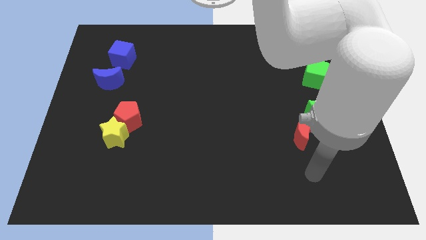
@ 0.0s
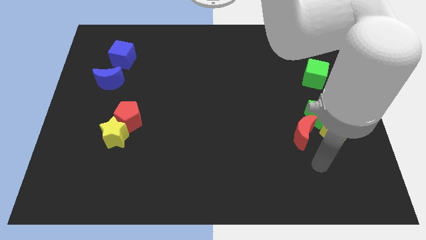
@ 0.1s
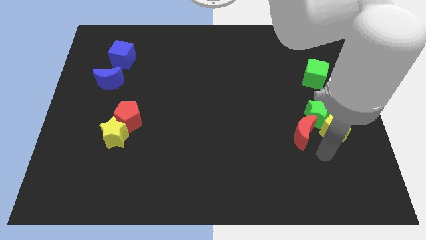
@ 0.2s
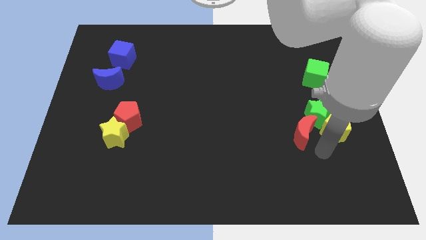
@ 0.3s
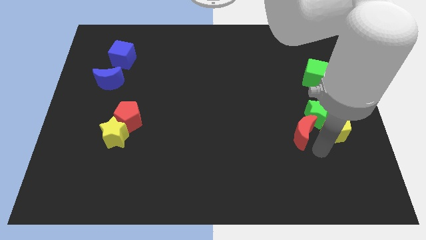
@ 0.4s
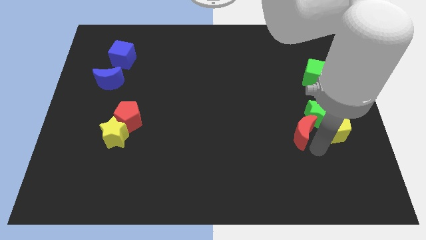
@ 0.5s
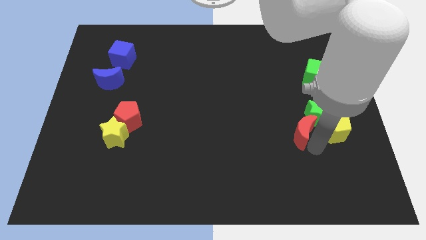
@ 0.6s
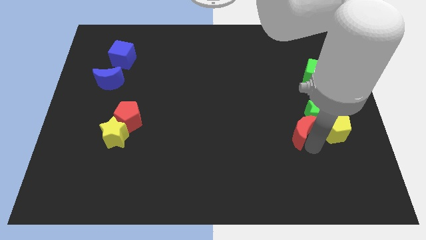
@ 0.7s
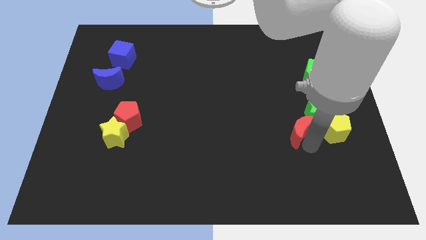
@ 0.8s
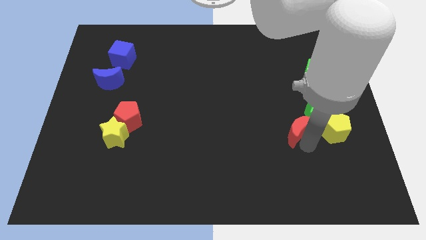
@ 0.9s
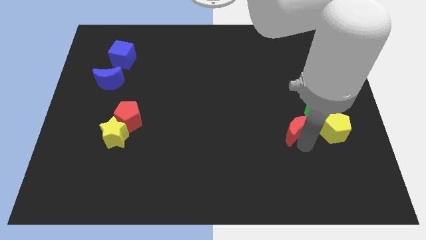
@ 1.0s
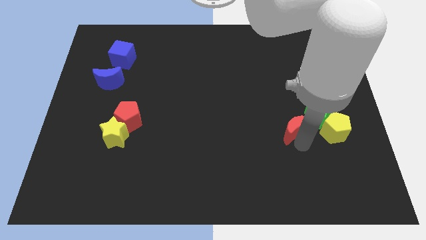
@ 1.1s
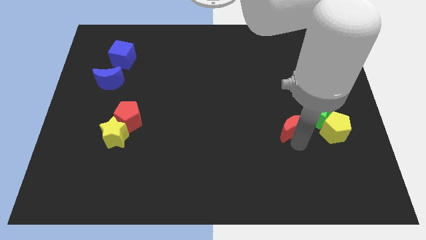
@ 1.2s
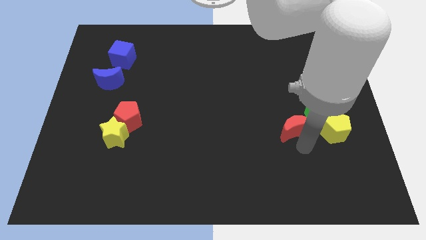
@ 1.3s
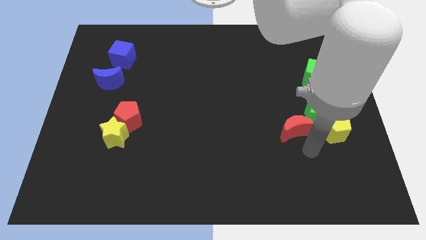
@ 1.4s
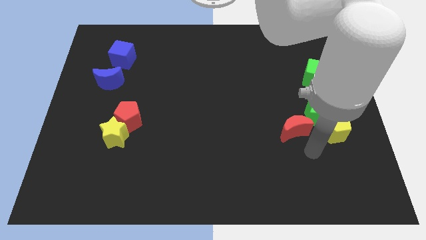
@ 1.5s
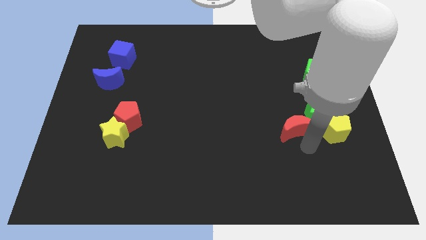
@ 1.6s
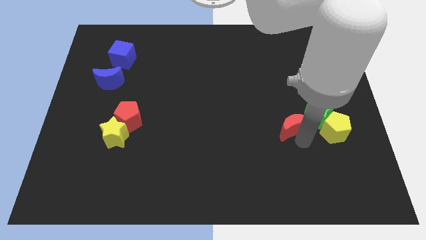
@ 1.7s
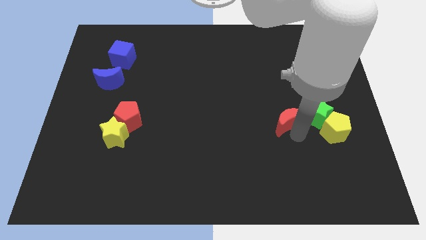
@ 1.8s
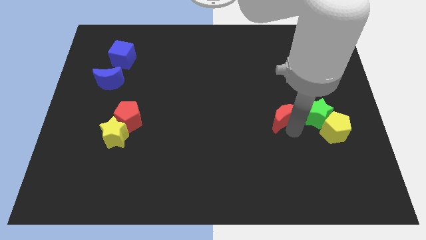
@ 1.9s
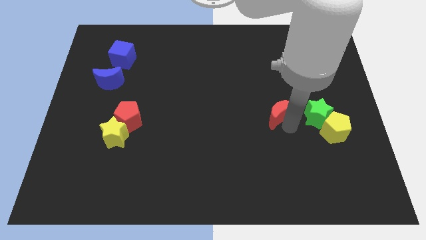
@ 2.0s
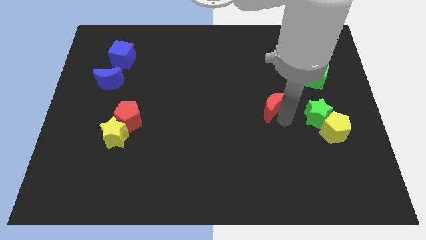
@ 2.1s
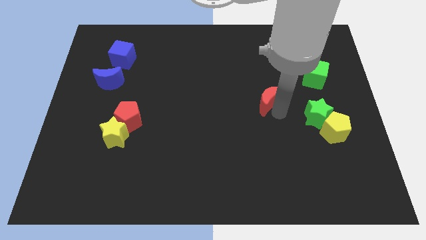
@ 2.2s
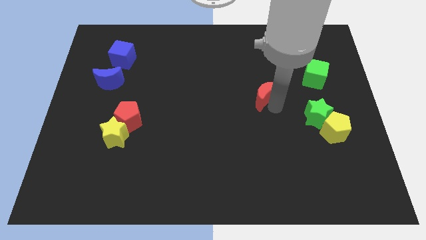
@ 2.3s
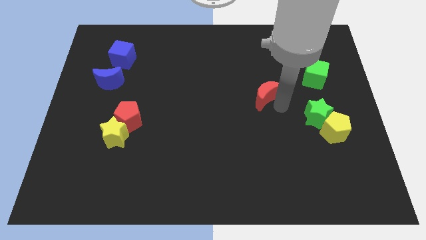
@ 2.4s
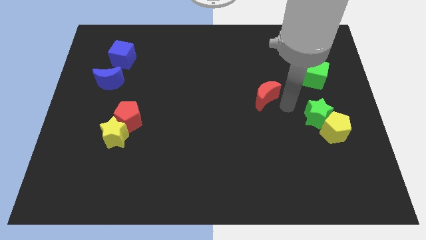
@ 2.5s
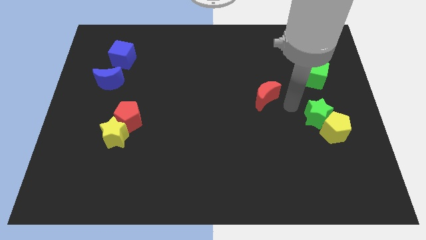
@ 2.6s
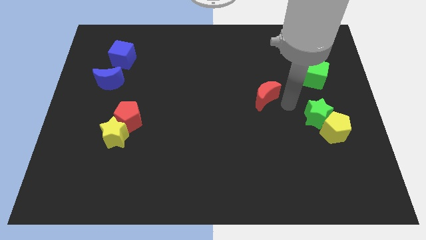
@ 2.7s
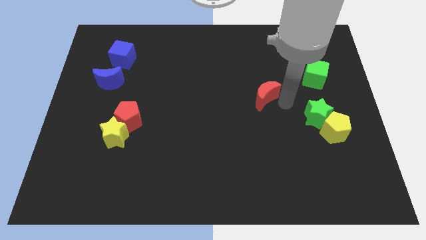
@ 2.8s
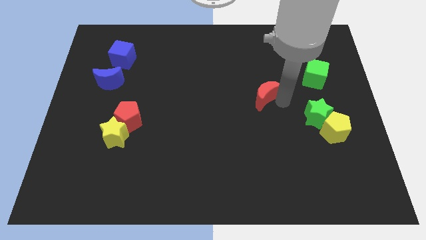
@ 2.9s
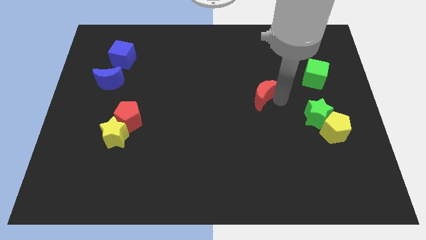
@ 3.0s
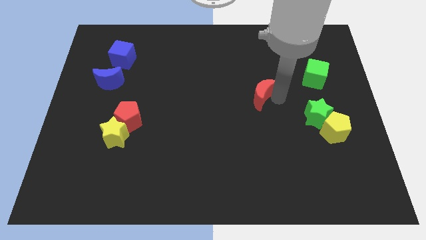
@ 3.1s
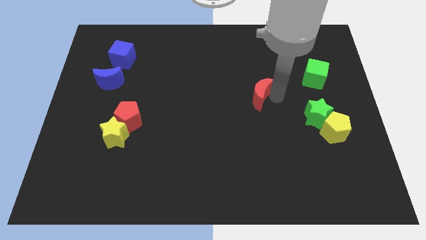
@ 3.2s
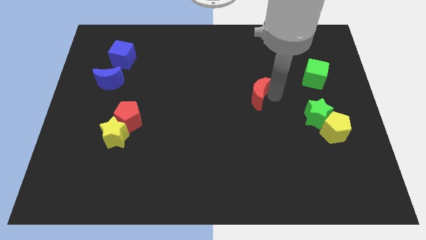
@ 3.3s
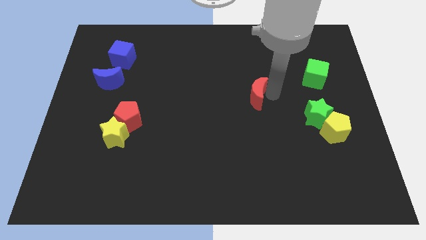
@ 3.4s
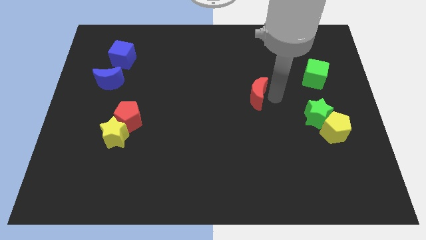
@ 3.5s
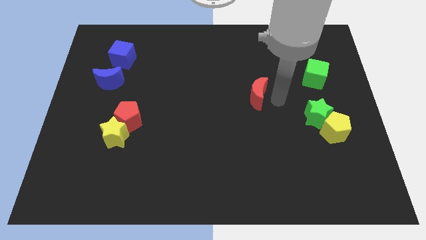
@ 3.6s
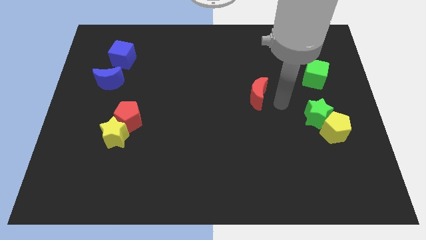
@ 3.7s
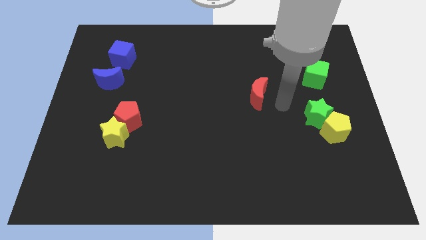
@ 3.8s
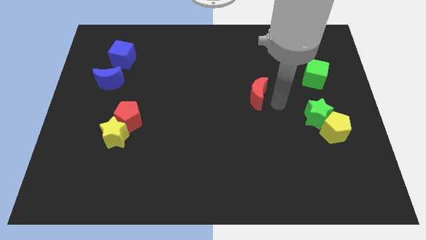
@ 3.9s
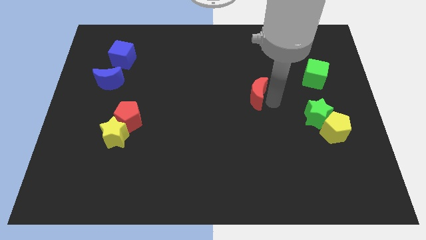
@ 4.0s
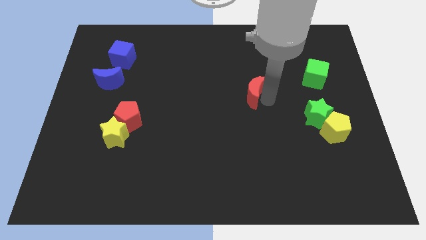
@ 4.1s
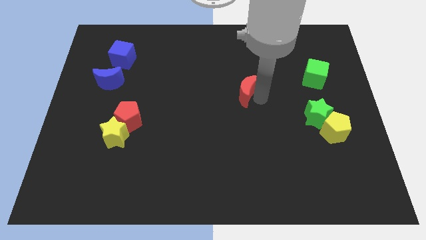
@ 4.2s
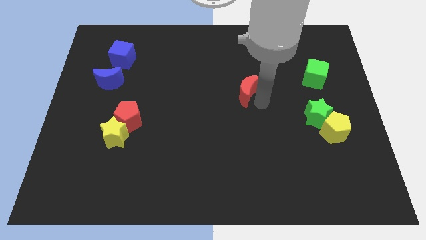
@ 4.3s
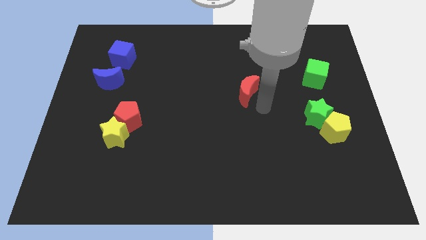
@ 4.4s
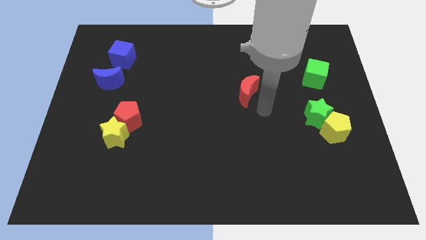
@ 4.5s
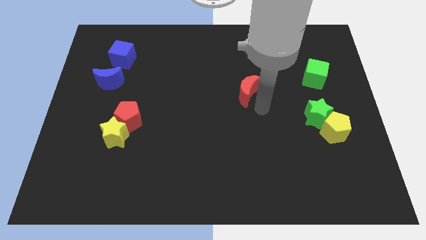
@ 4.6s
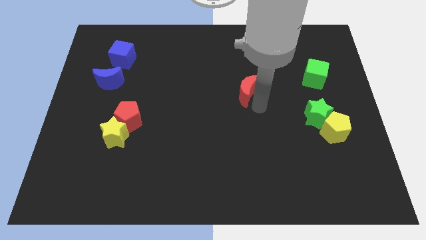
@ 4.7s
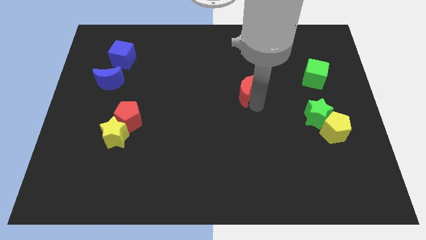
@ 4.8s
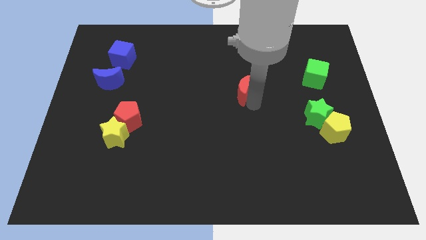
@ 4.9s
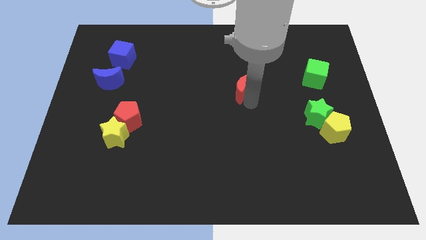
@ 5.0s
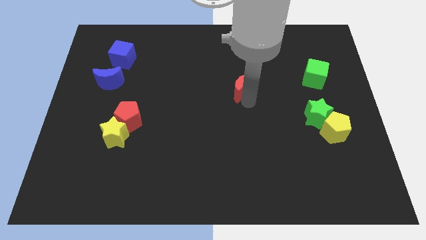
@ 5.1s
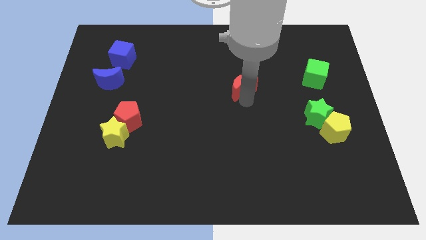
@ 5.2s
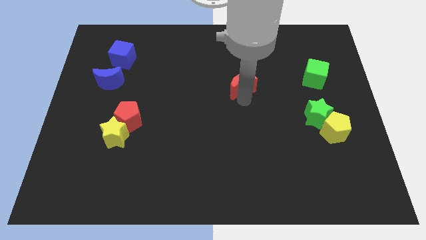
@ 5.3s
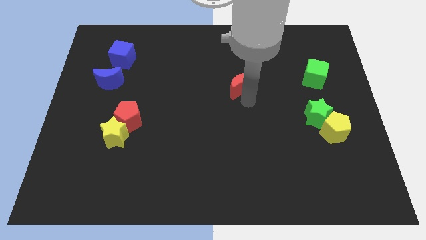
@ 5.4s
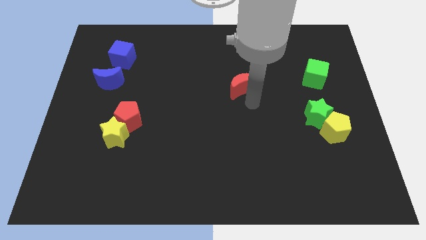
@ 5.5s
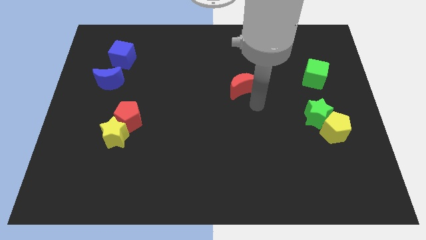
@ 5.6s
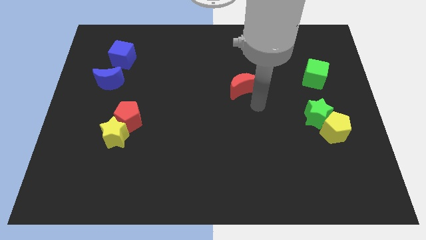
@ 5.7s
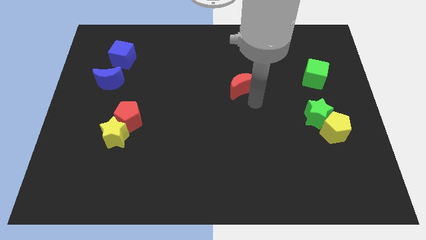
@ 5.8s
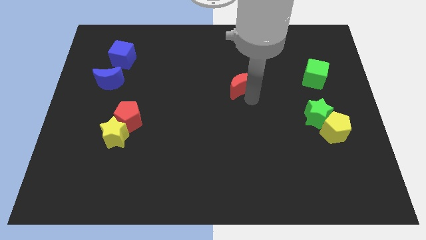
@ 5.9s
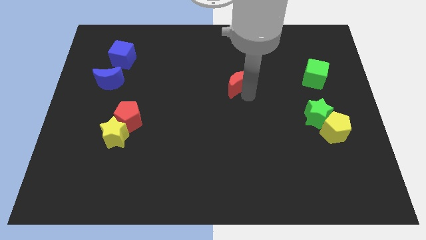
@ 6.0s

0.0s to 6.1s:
slide the red moon diagonally up and to the left

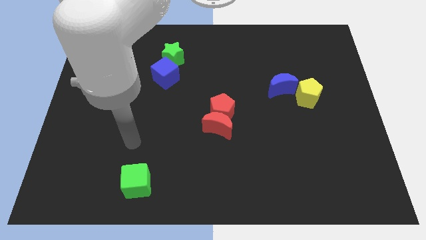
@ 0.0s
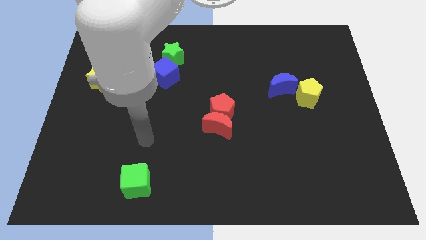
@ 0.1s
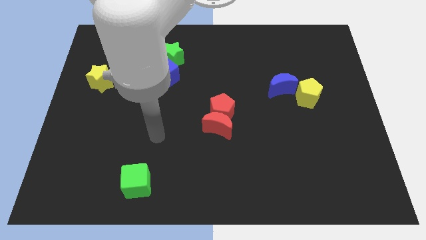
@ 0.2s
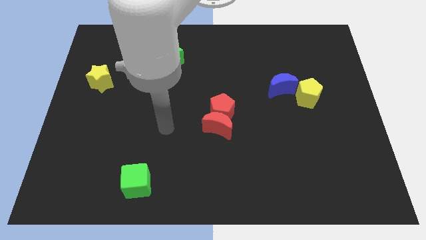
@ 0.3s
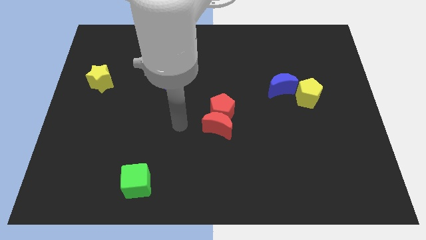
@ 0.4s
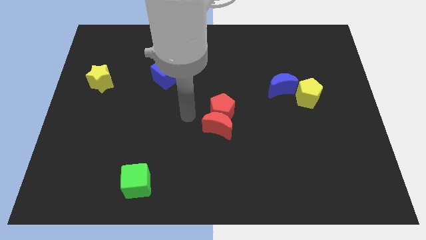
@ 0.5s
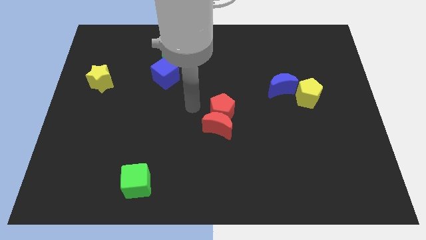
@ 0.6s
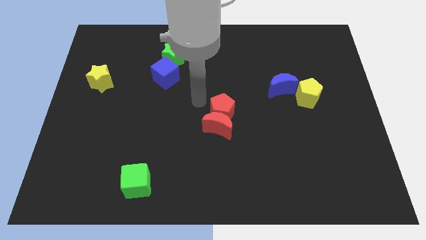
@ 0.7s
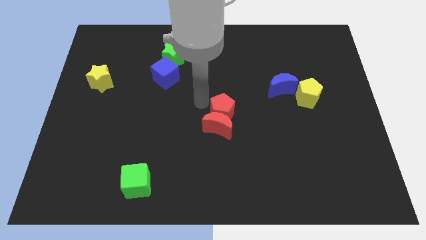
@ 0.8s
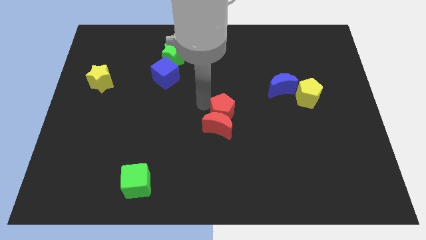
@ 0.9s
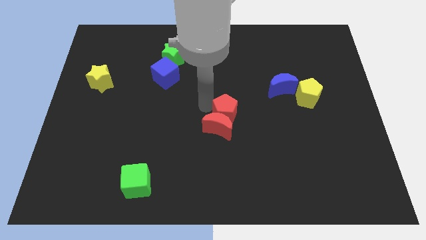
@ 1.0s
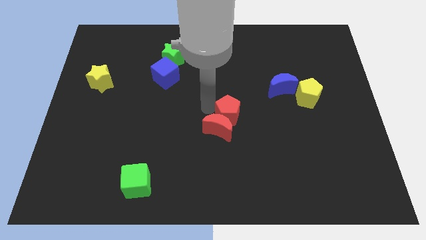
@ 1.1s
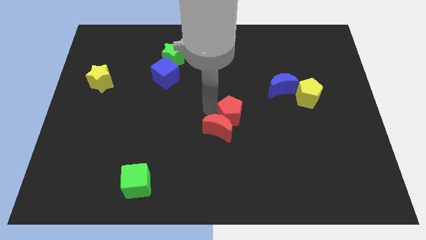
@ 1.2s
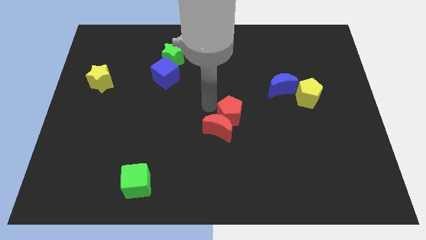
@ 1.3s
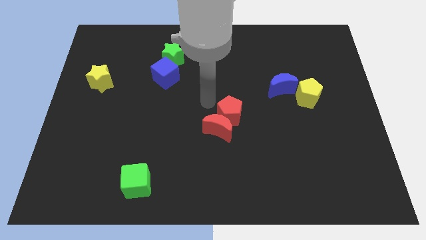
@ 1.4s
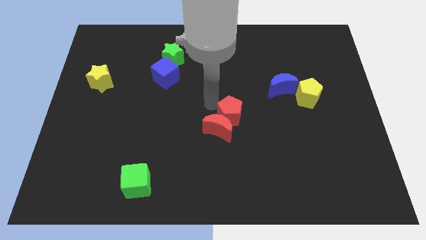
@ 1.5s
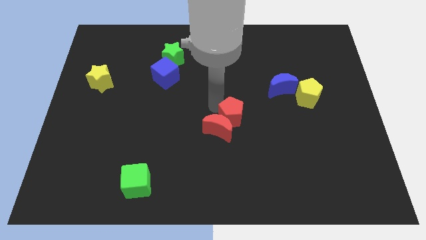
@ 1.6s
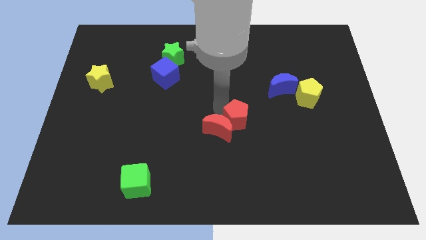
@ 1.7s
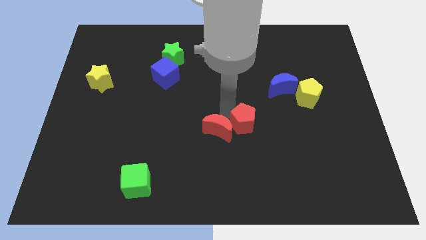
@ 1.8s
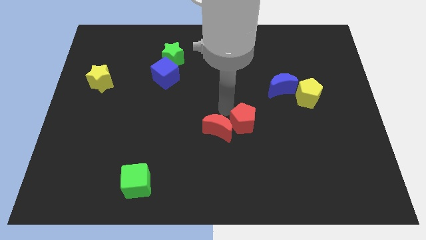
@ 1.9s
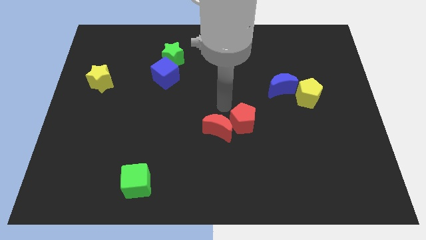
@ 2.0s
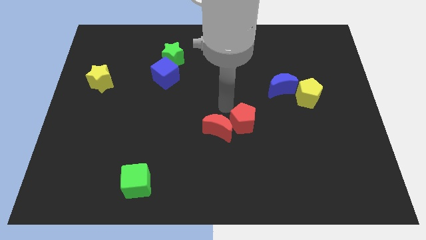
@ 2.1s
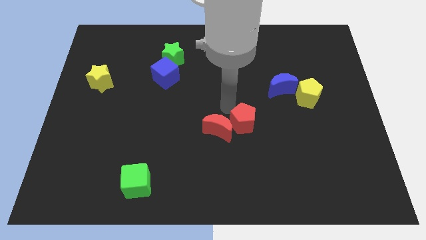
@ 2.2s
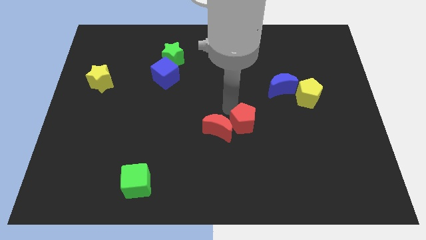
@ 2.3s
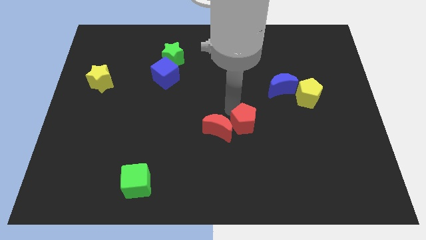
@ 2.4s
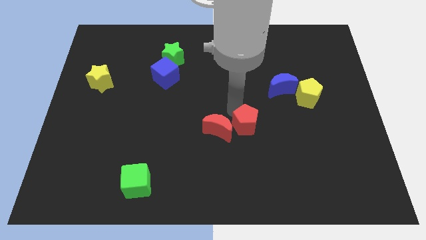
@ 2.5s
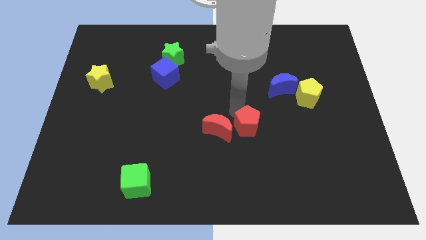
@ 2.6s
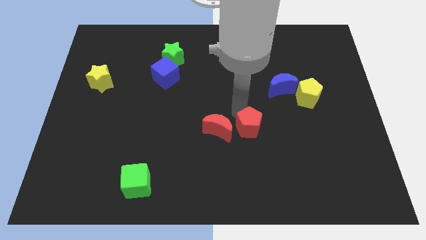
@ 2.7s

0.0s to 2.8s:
slide the red pentagon diagonally down and to the right a bit
